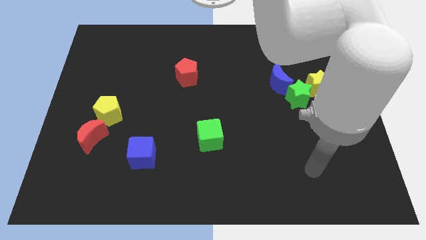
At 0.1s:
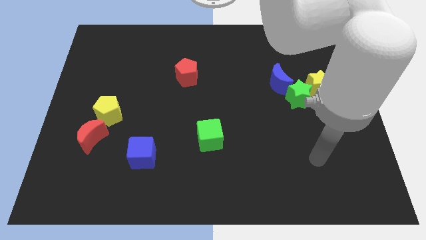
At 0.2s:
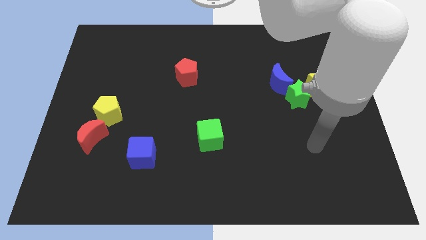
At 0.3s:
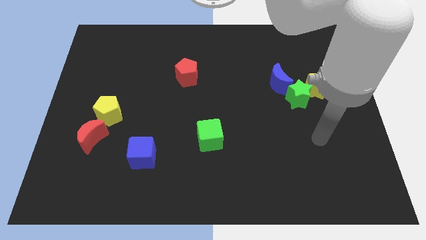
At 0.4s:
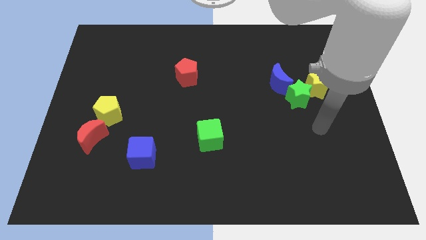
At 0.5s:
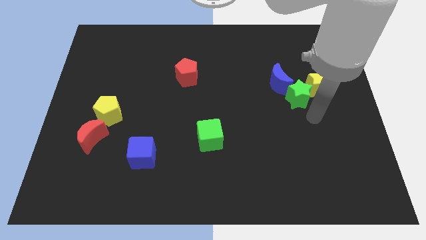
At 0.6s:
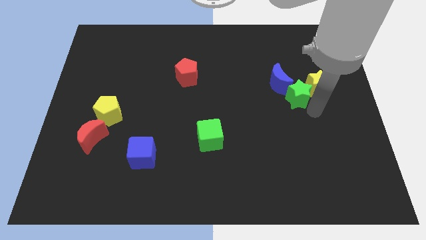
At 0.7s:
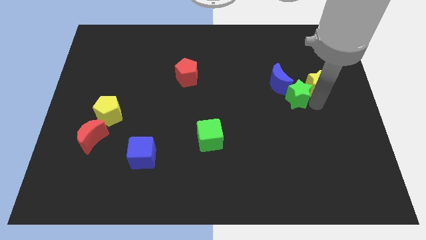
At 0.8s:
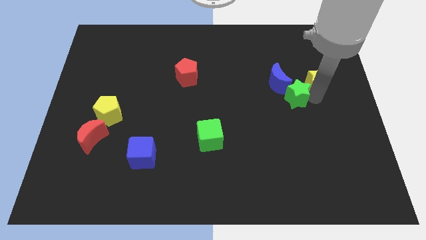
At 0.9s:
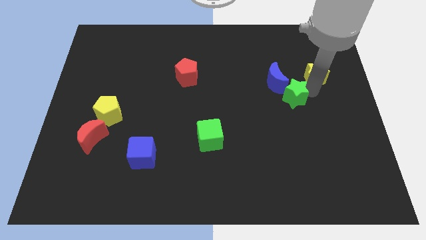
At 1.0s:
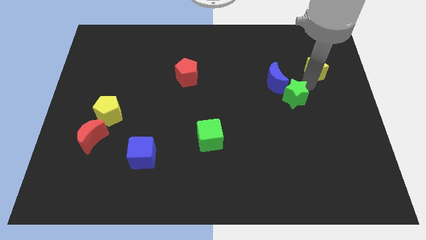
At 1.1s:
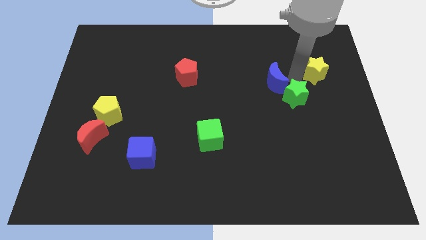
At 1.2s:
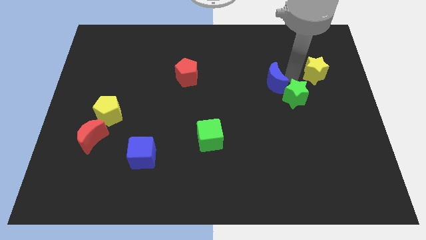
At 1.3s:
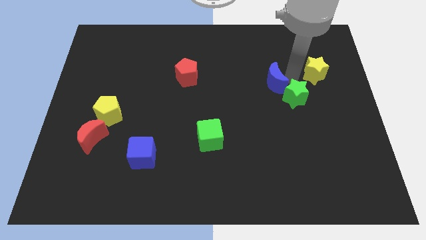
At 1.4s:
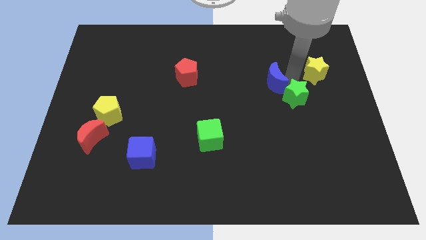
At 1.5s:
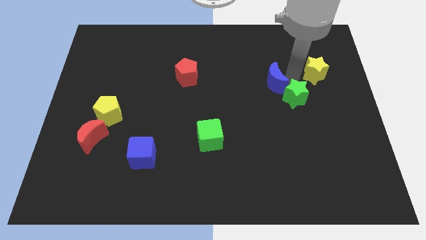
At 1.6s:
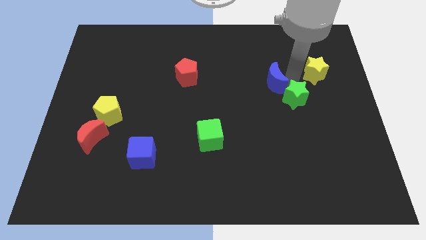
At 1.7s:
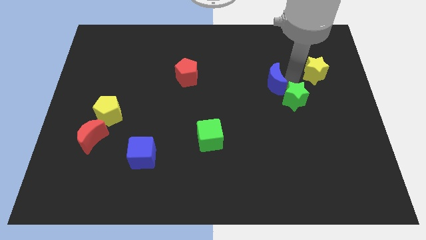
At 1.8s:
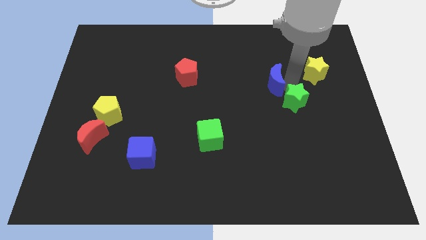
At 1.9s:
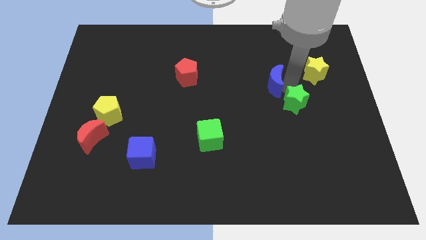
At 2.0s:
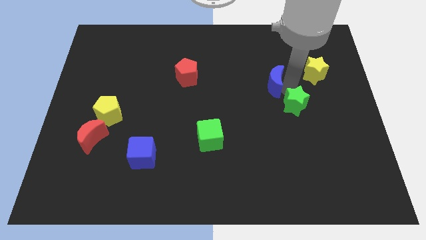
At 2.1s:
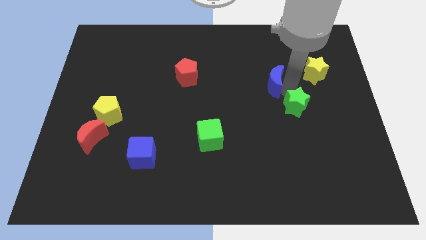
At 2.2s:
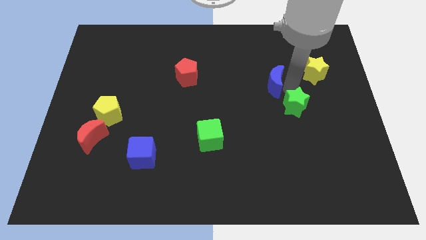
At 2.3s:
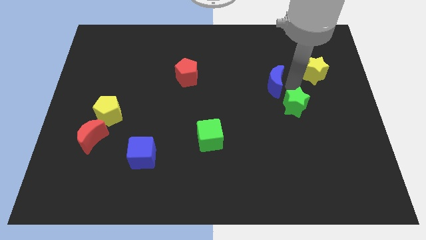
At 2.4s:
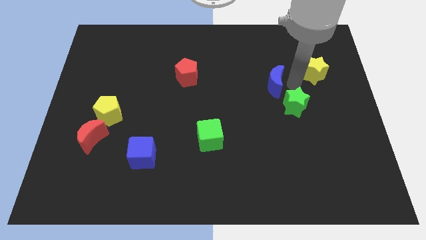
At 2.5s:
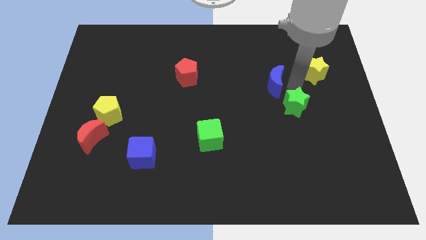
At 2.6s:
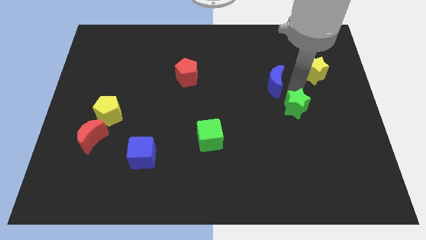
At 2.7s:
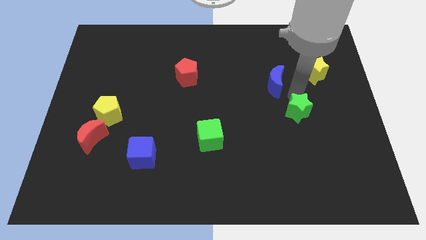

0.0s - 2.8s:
move the green star away from the yellow star and blue moon

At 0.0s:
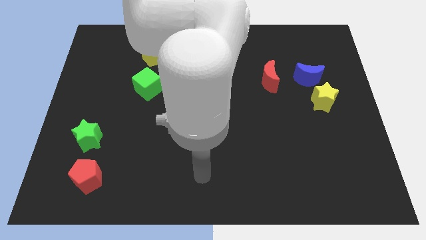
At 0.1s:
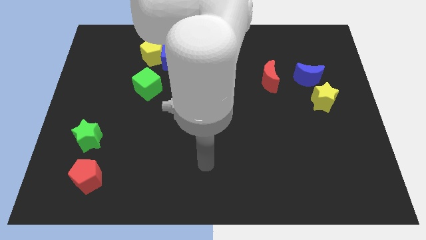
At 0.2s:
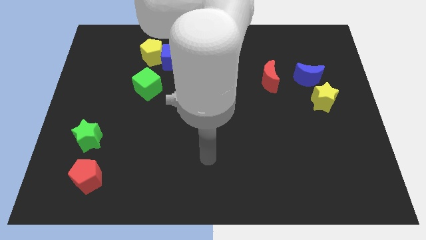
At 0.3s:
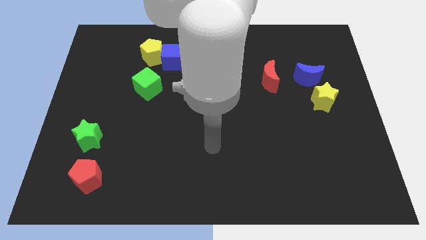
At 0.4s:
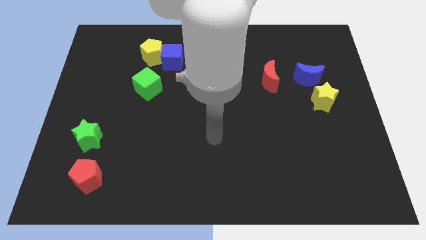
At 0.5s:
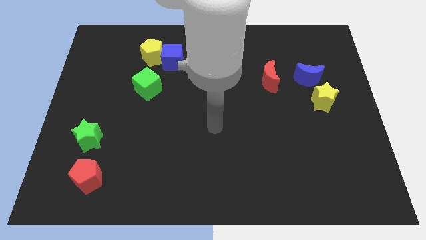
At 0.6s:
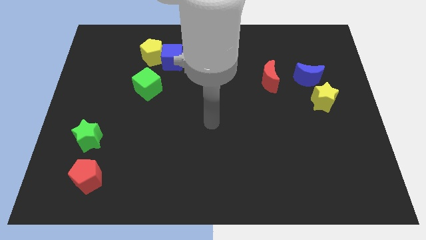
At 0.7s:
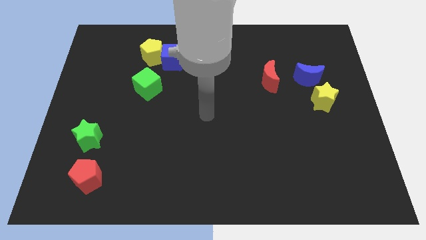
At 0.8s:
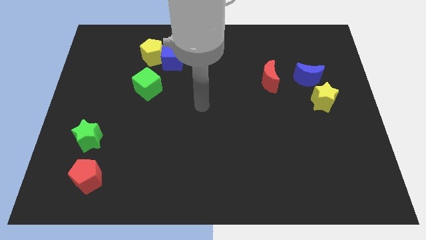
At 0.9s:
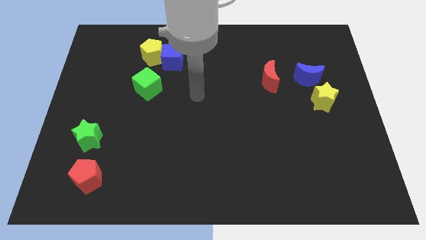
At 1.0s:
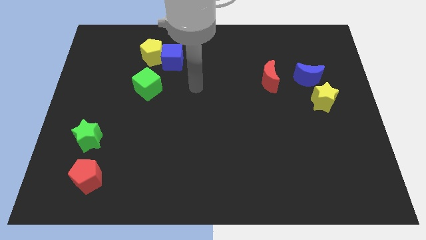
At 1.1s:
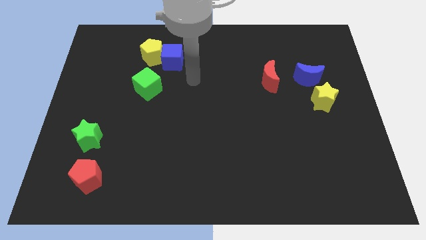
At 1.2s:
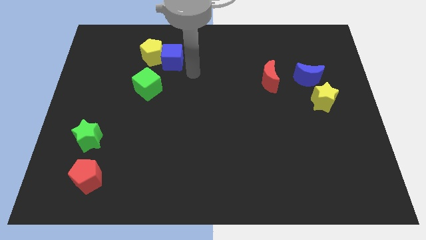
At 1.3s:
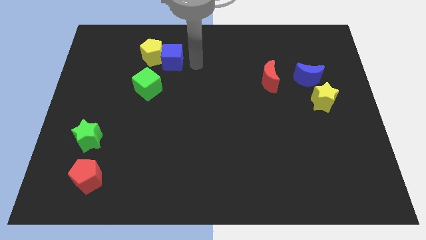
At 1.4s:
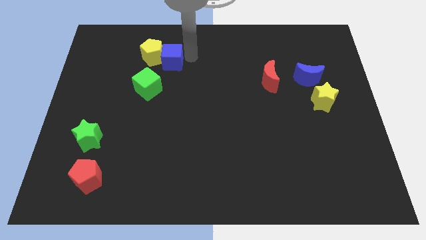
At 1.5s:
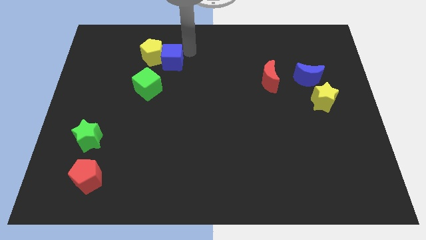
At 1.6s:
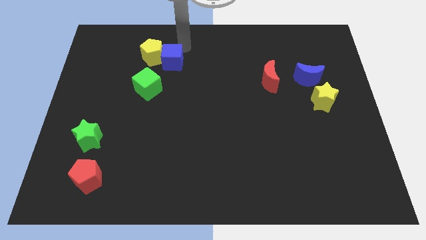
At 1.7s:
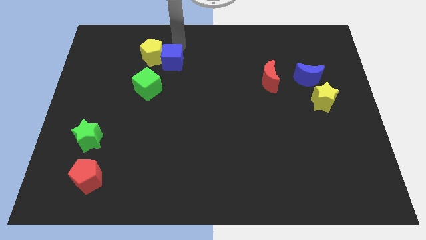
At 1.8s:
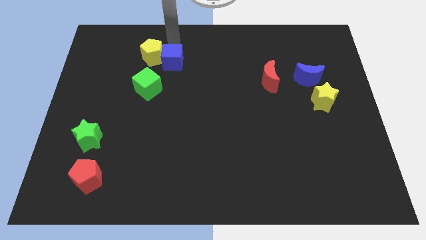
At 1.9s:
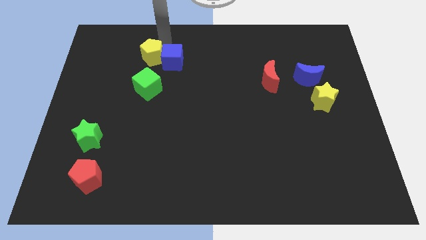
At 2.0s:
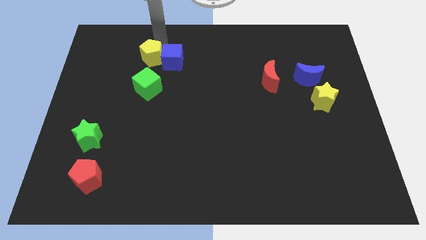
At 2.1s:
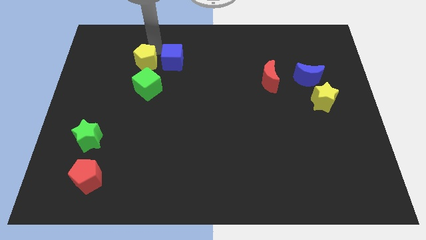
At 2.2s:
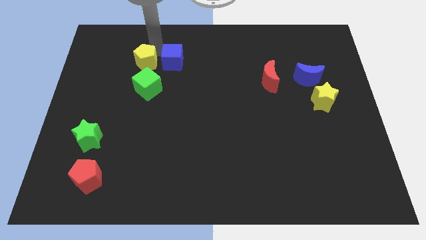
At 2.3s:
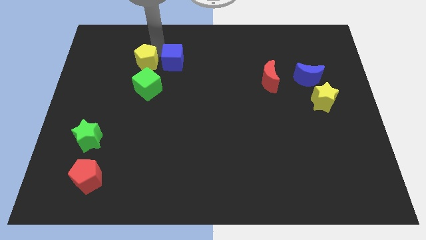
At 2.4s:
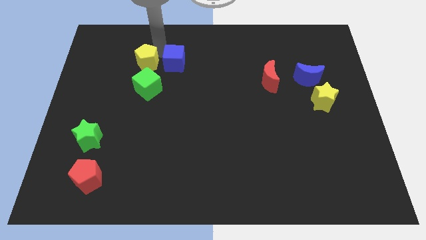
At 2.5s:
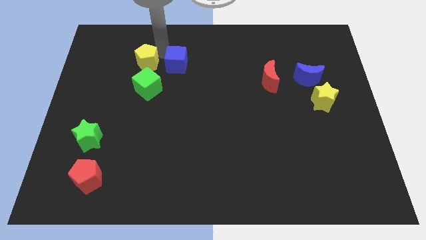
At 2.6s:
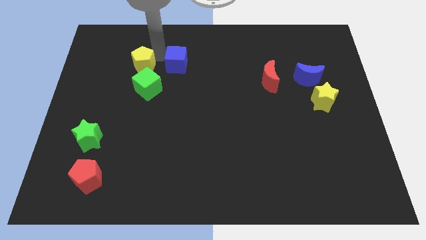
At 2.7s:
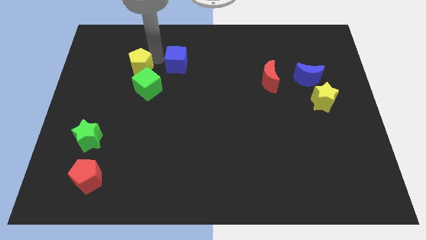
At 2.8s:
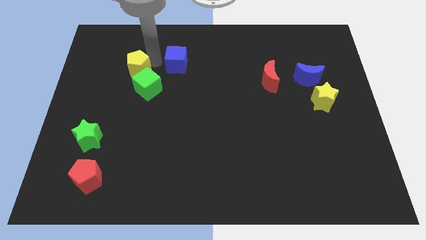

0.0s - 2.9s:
pull the blue cube apart from the yellow pentagon

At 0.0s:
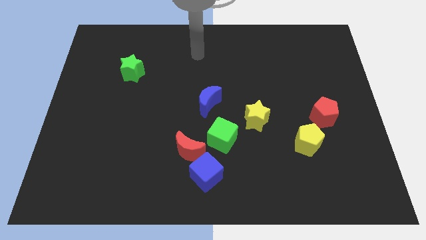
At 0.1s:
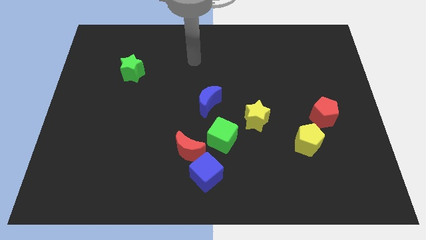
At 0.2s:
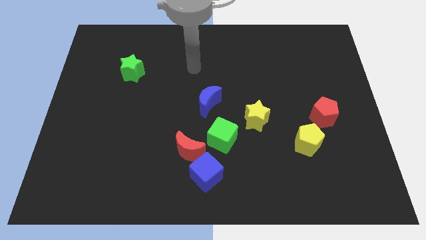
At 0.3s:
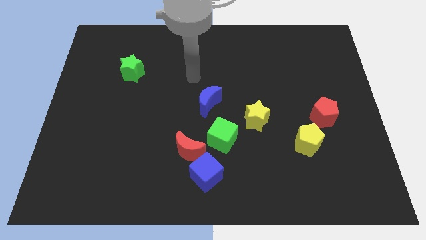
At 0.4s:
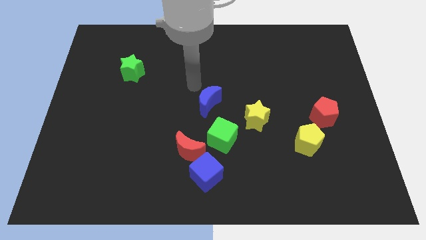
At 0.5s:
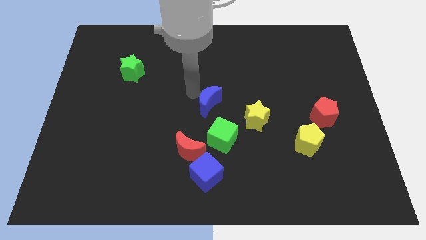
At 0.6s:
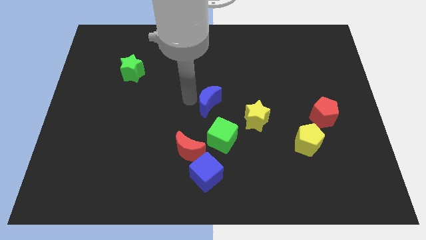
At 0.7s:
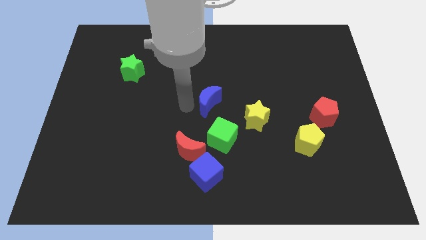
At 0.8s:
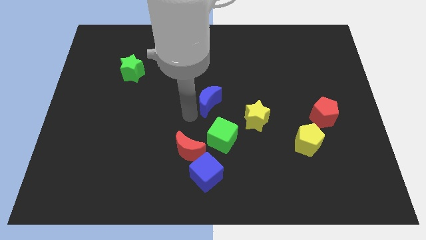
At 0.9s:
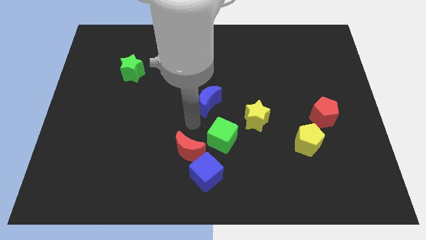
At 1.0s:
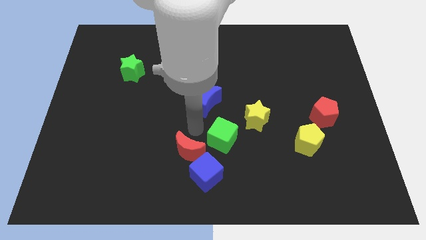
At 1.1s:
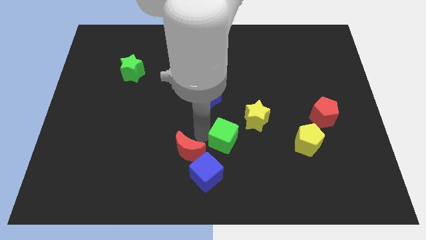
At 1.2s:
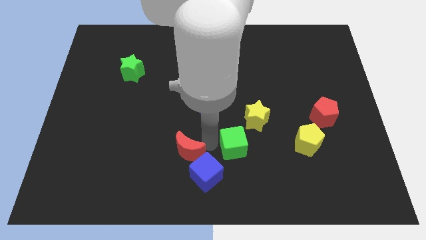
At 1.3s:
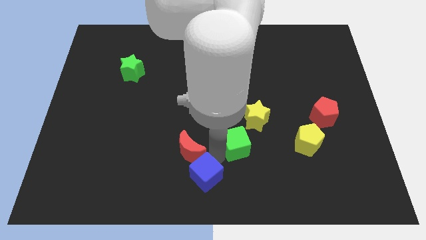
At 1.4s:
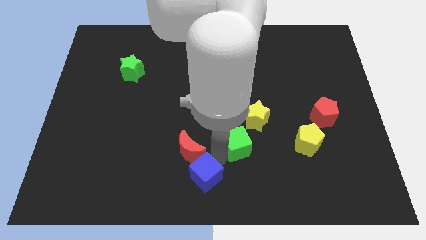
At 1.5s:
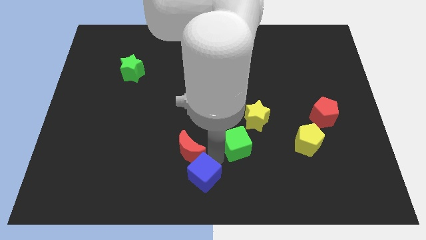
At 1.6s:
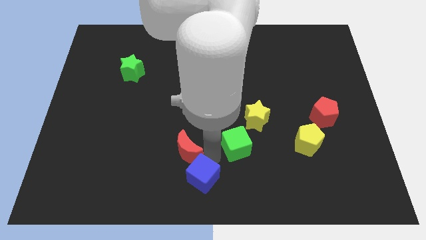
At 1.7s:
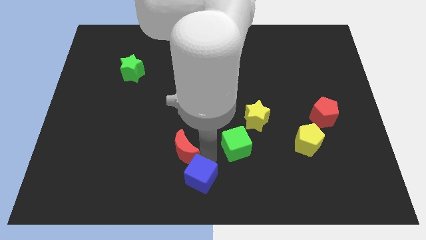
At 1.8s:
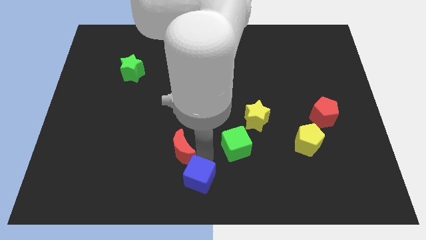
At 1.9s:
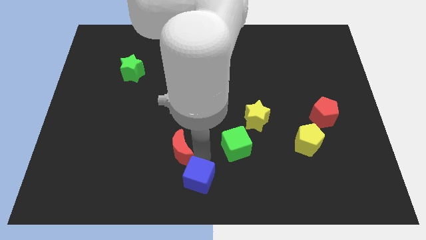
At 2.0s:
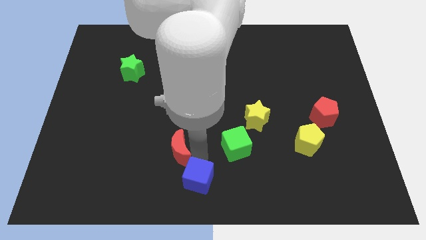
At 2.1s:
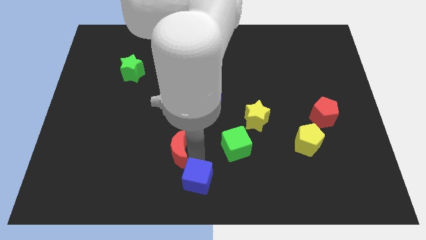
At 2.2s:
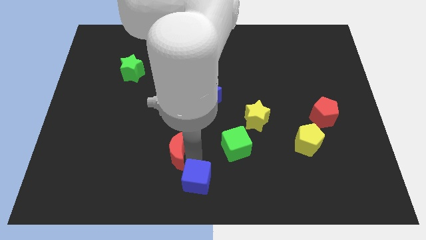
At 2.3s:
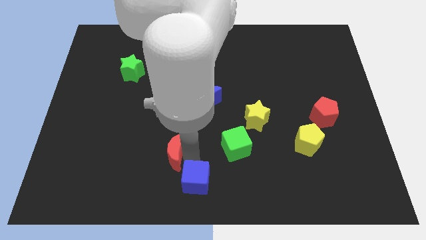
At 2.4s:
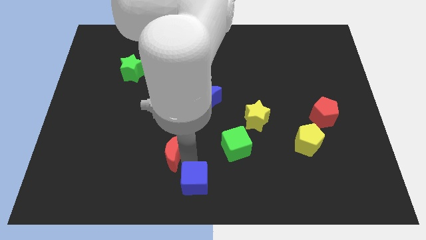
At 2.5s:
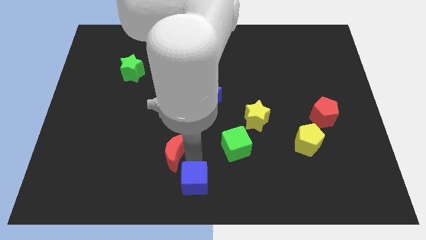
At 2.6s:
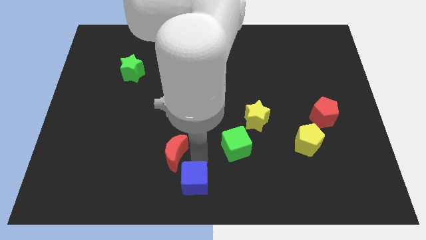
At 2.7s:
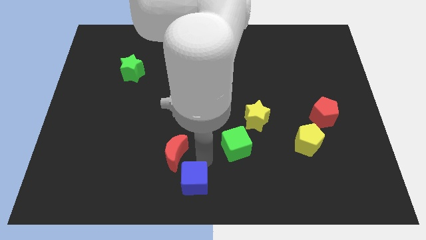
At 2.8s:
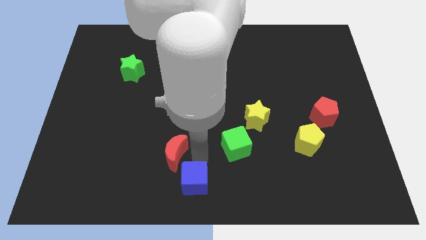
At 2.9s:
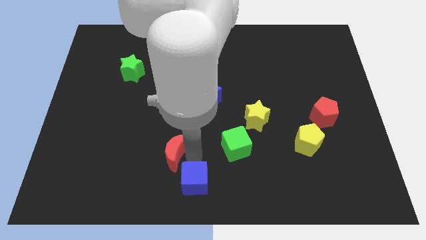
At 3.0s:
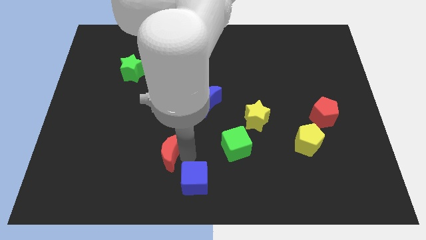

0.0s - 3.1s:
move the red moon away from the blue cube and green cube

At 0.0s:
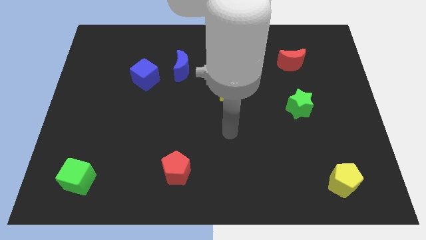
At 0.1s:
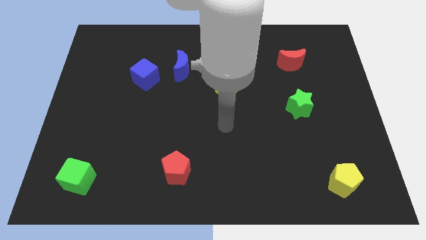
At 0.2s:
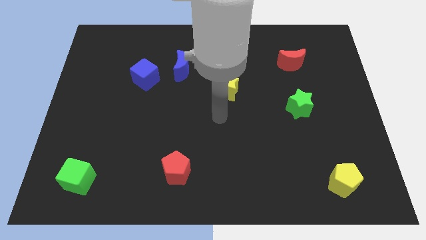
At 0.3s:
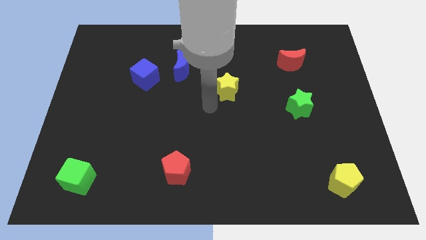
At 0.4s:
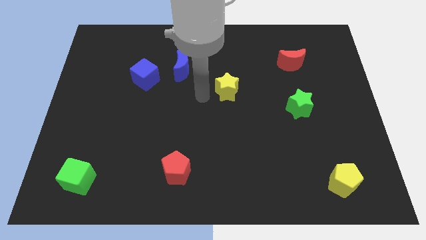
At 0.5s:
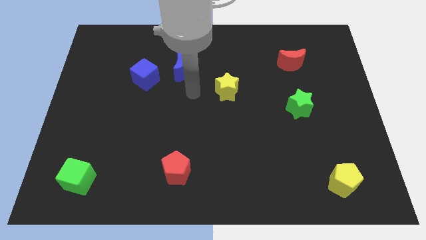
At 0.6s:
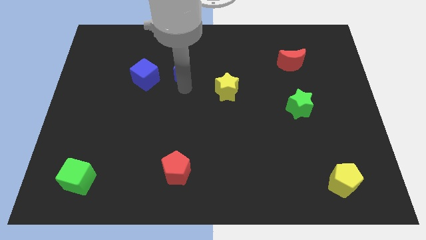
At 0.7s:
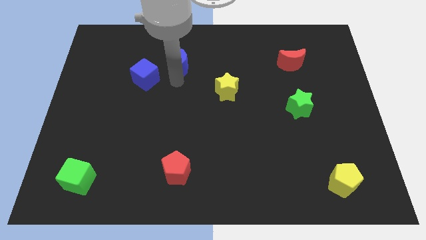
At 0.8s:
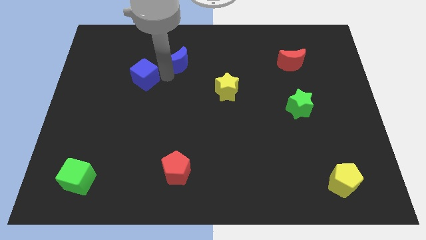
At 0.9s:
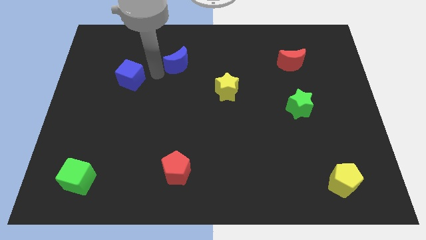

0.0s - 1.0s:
move the blue moon away from the blue cube
